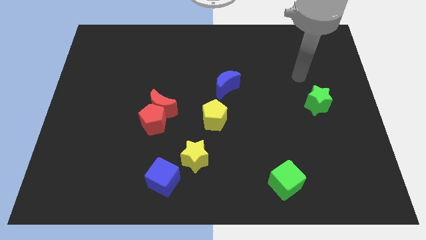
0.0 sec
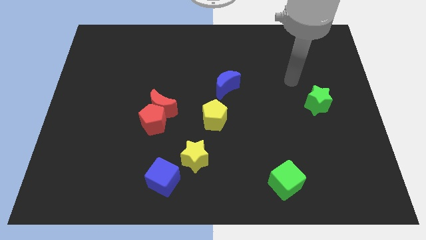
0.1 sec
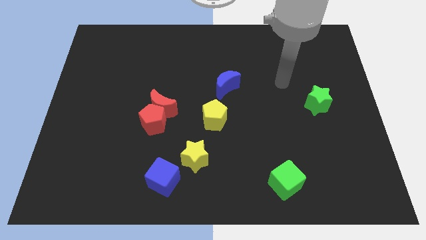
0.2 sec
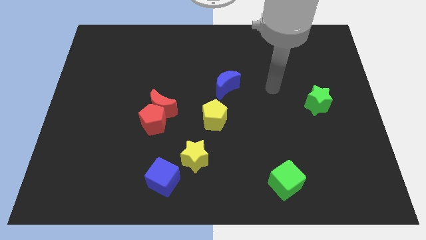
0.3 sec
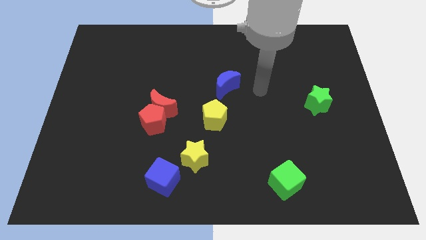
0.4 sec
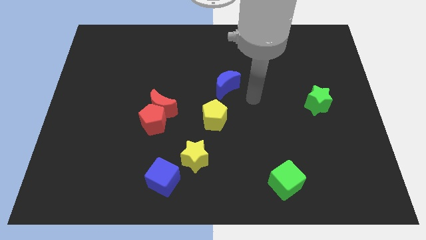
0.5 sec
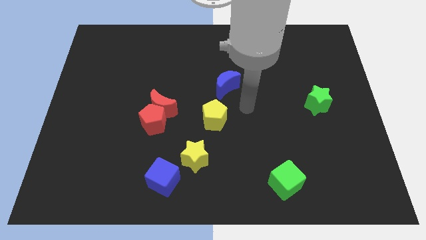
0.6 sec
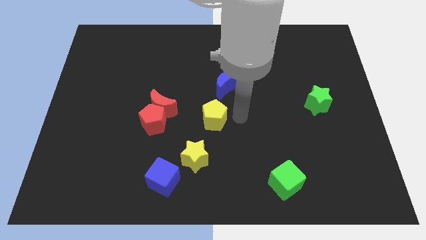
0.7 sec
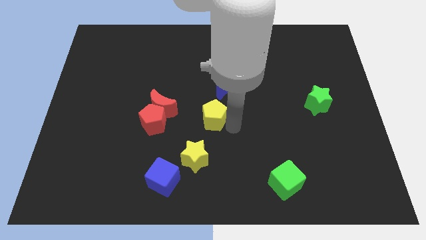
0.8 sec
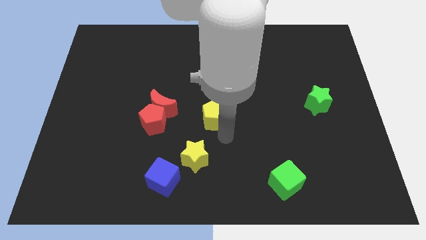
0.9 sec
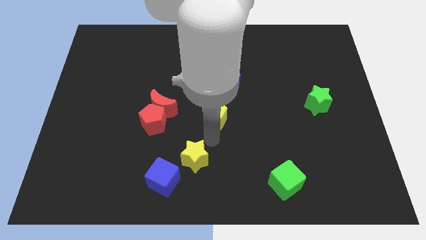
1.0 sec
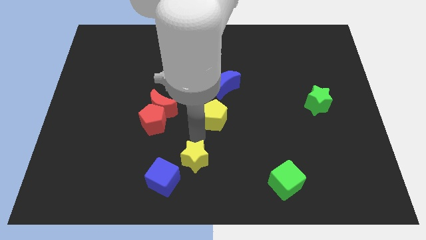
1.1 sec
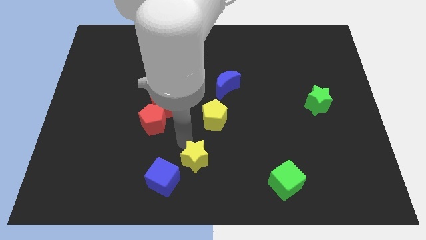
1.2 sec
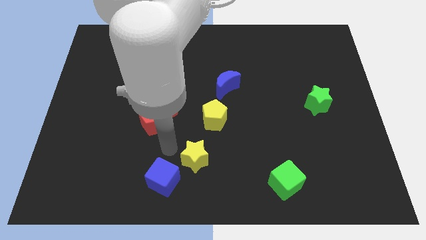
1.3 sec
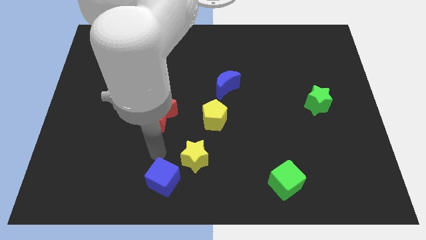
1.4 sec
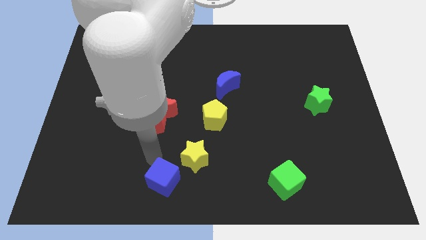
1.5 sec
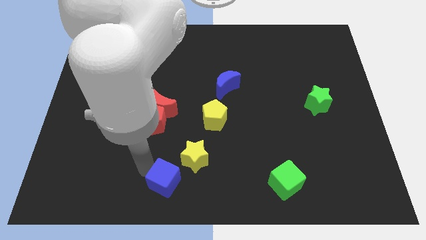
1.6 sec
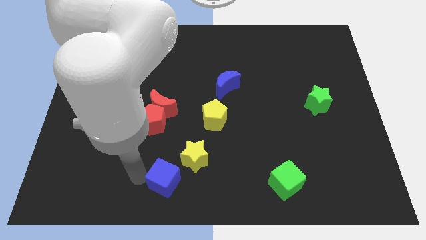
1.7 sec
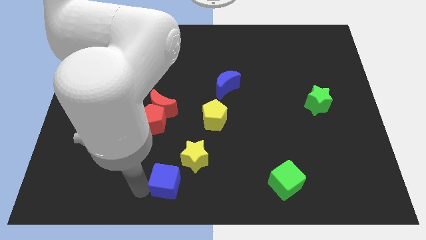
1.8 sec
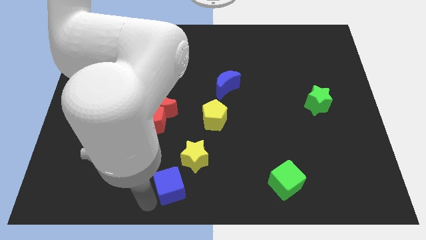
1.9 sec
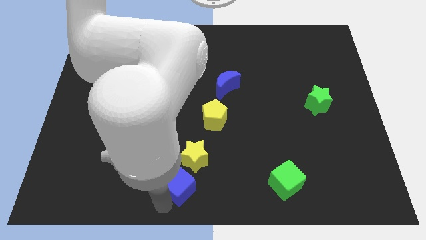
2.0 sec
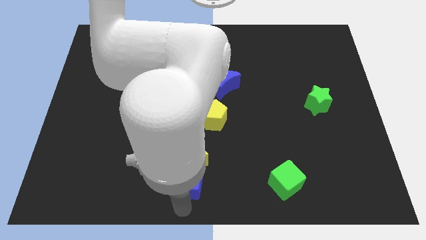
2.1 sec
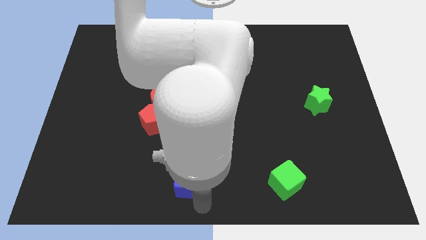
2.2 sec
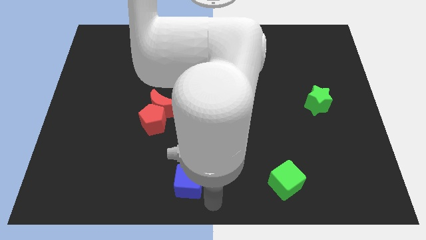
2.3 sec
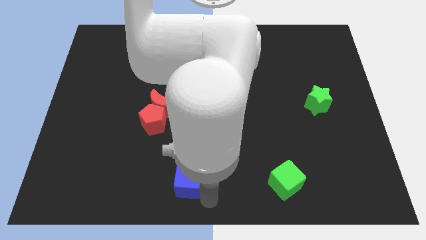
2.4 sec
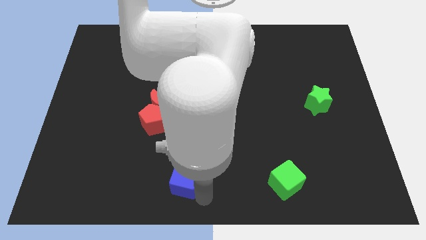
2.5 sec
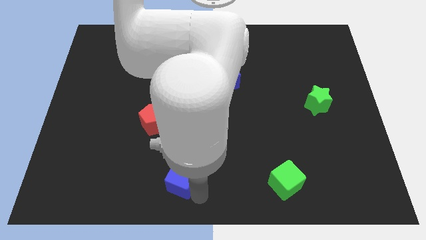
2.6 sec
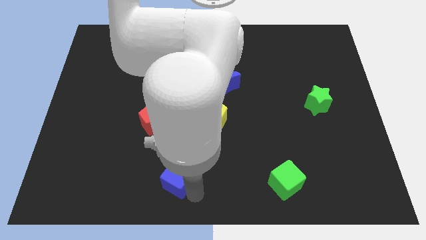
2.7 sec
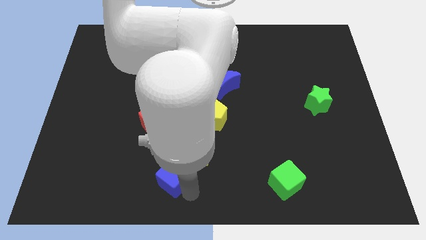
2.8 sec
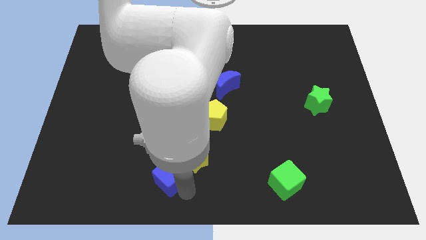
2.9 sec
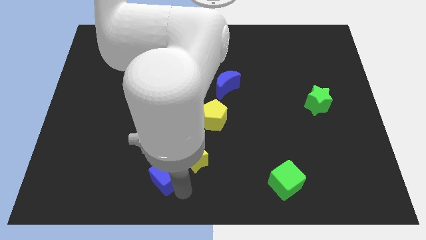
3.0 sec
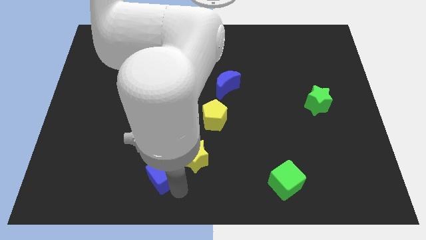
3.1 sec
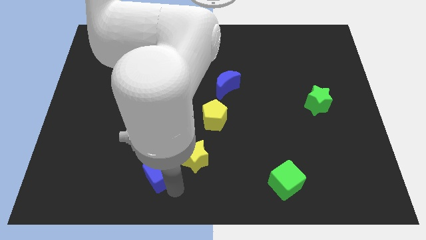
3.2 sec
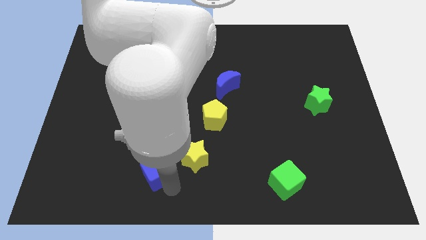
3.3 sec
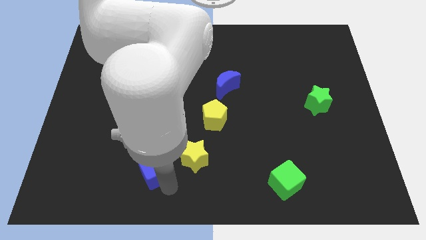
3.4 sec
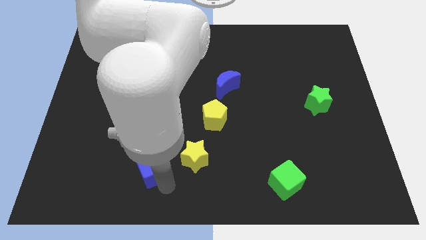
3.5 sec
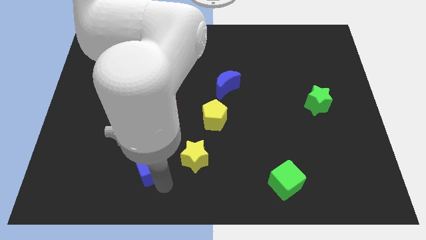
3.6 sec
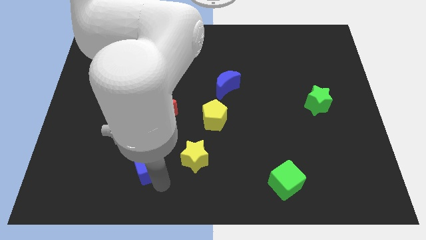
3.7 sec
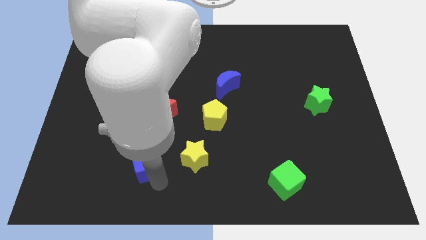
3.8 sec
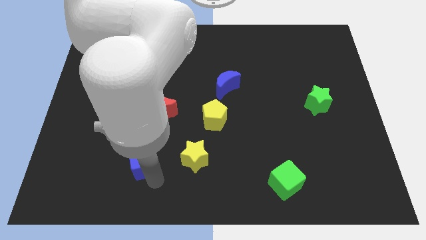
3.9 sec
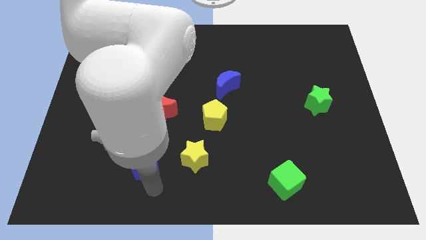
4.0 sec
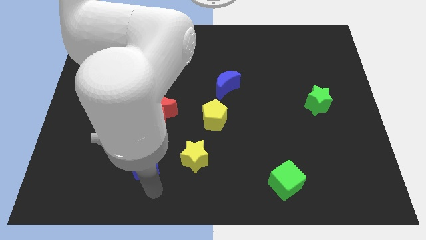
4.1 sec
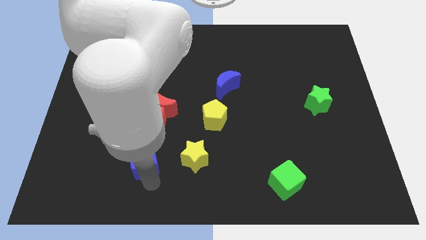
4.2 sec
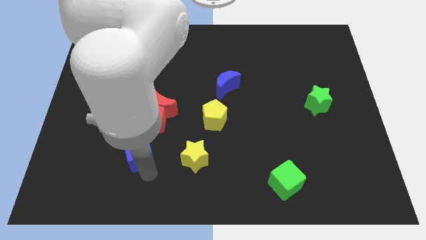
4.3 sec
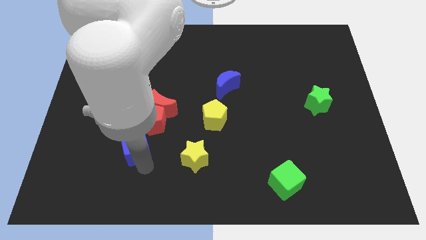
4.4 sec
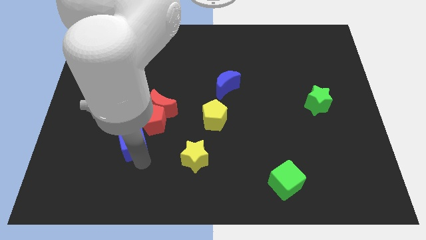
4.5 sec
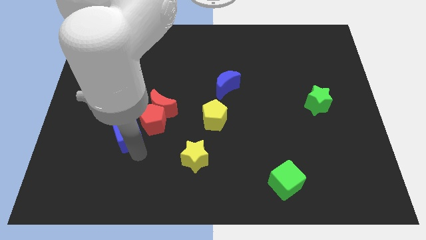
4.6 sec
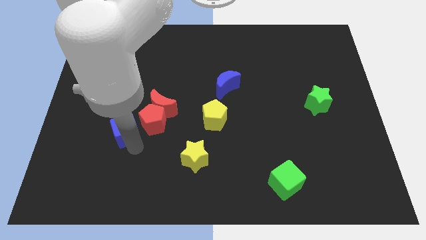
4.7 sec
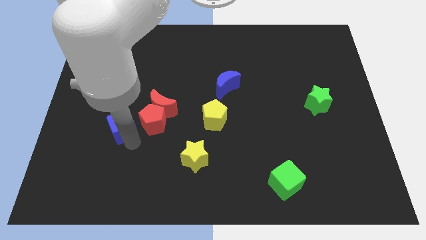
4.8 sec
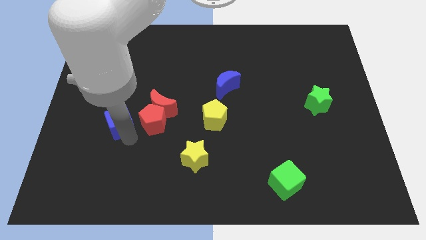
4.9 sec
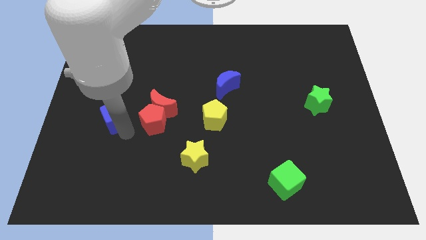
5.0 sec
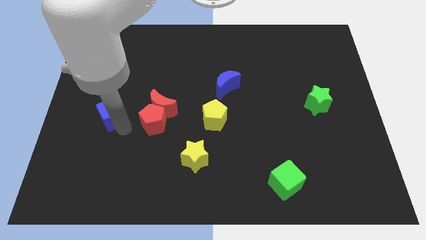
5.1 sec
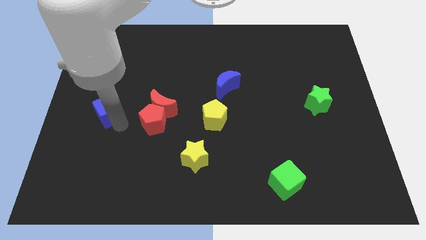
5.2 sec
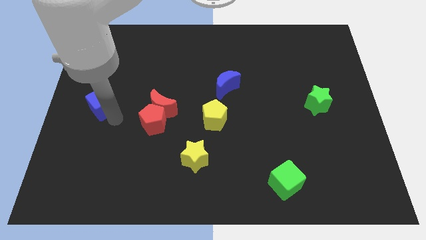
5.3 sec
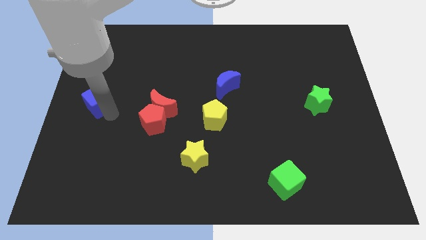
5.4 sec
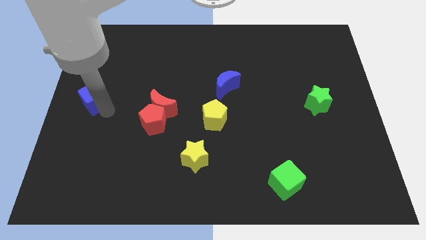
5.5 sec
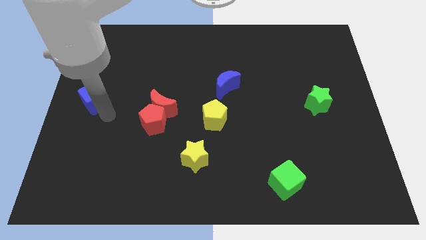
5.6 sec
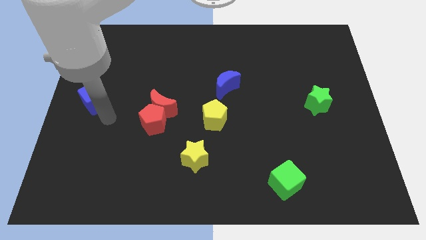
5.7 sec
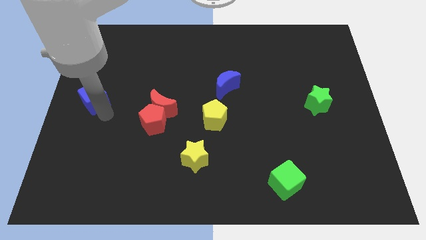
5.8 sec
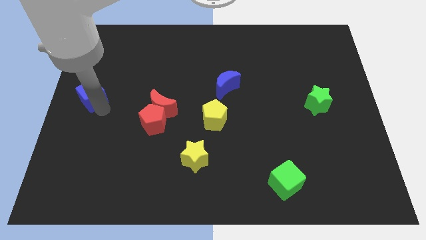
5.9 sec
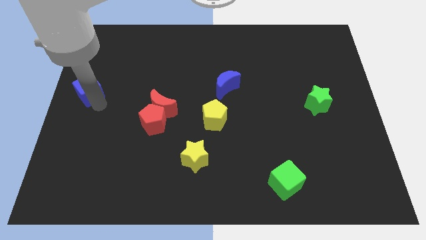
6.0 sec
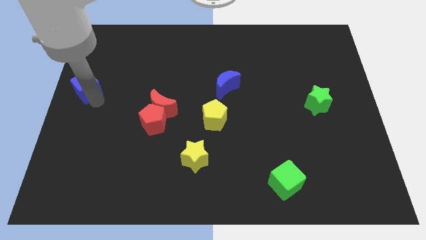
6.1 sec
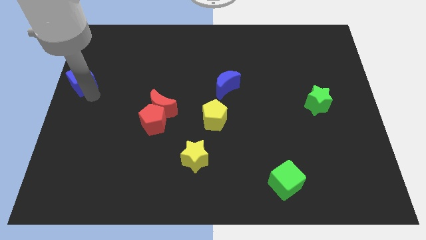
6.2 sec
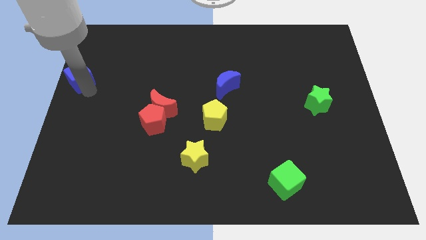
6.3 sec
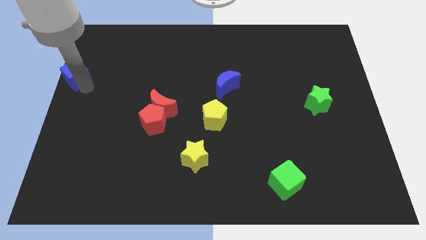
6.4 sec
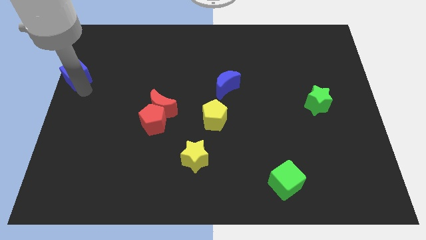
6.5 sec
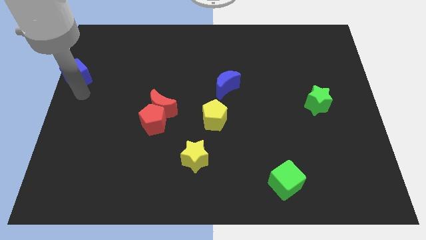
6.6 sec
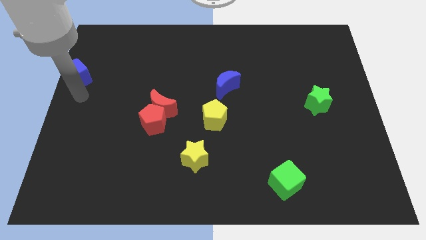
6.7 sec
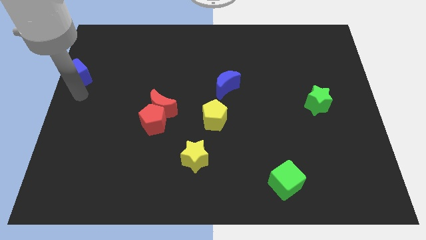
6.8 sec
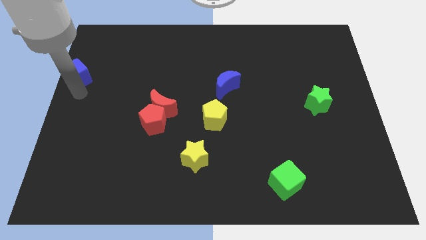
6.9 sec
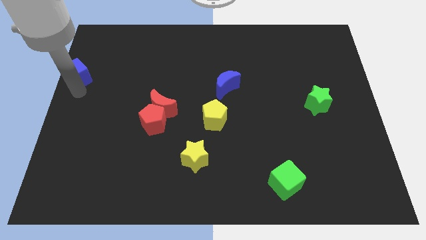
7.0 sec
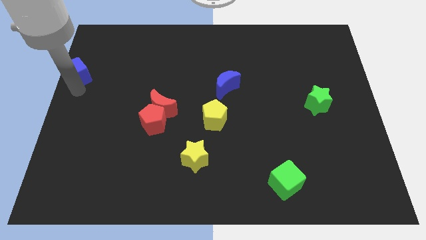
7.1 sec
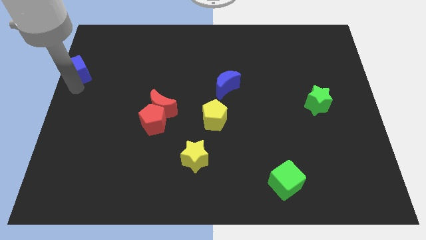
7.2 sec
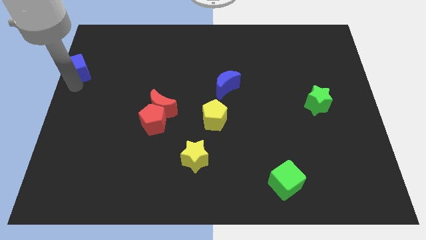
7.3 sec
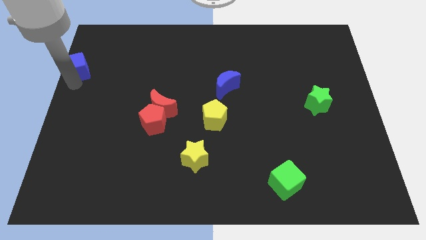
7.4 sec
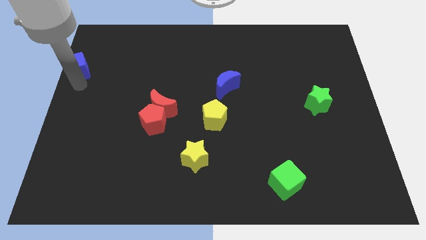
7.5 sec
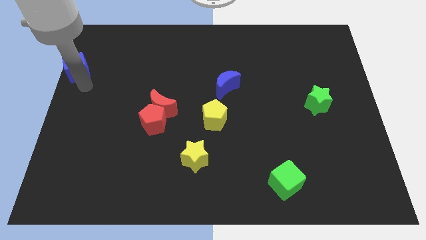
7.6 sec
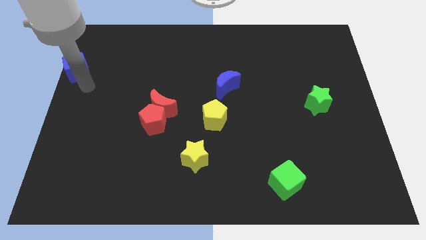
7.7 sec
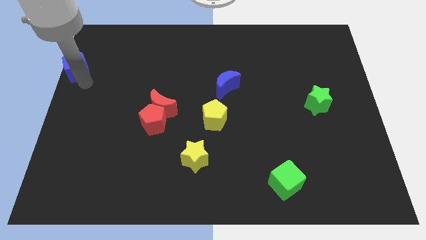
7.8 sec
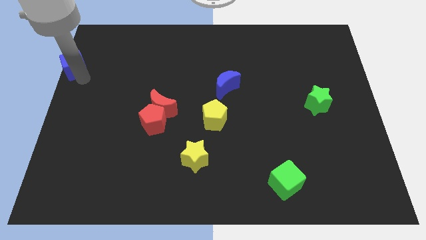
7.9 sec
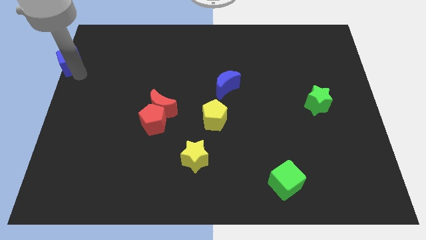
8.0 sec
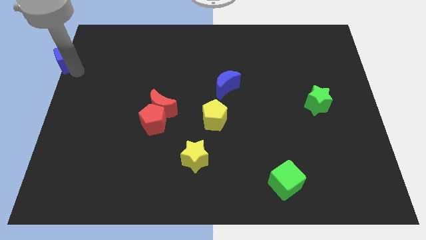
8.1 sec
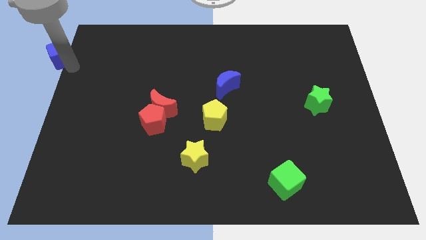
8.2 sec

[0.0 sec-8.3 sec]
put the blue cube to the top left of the board
